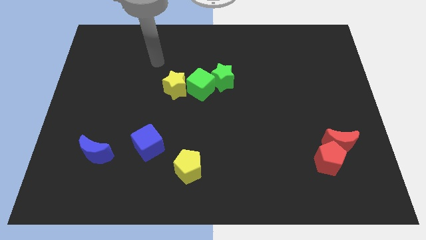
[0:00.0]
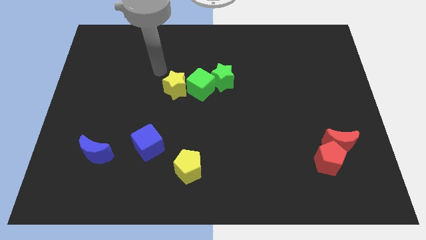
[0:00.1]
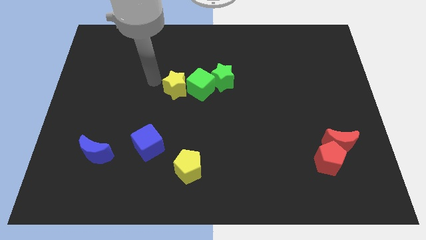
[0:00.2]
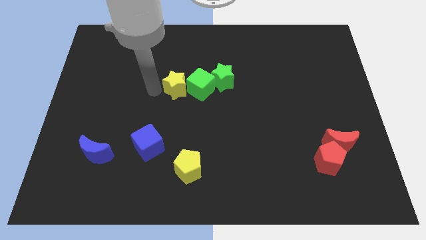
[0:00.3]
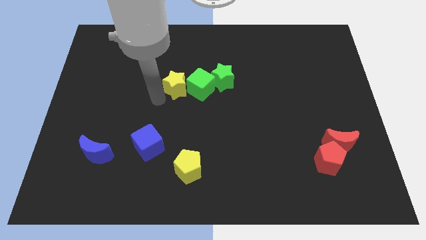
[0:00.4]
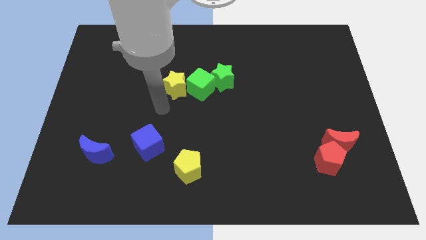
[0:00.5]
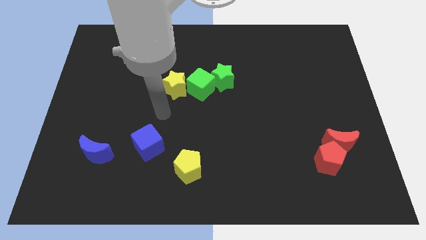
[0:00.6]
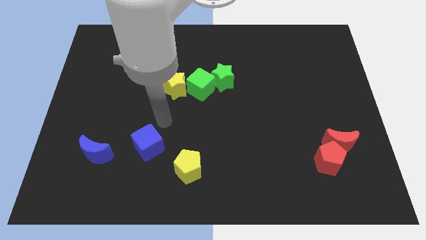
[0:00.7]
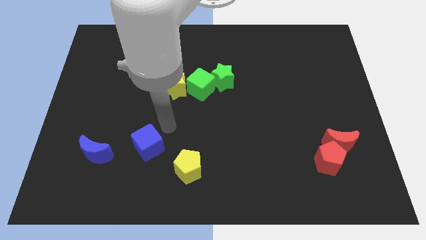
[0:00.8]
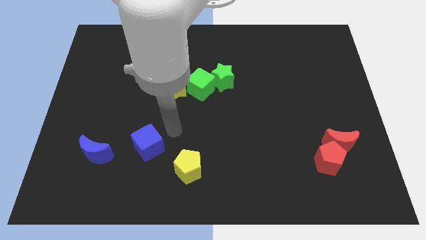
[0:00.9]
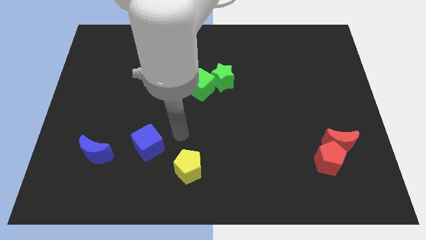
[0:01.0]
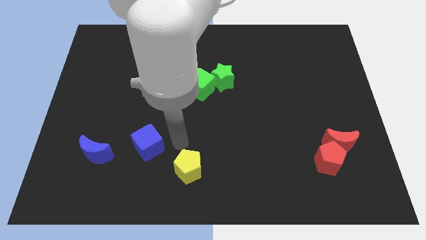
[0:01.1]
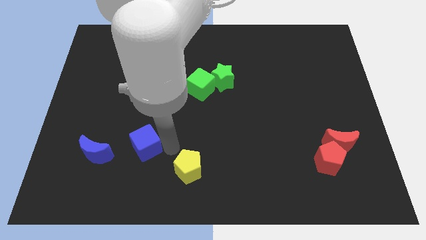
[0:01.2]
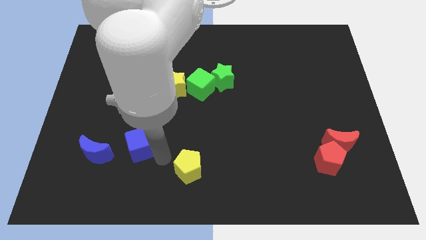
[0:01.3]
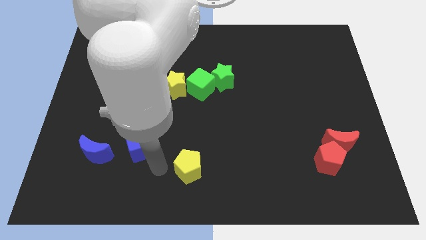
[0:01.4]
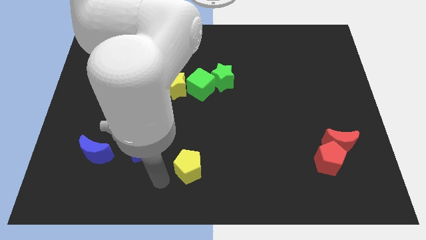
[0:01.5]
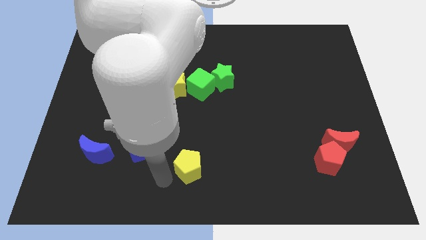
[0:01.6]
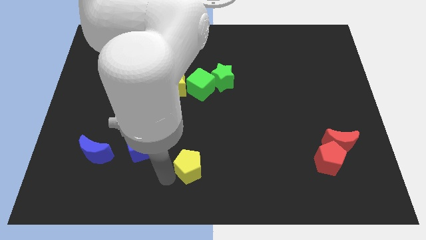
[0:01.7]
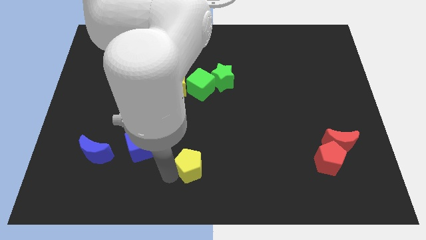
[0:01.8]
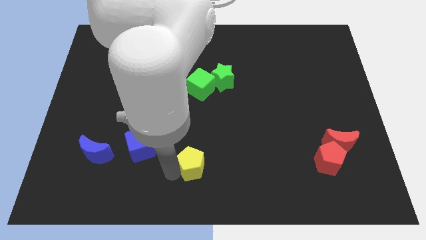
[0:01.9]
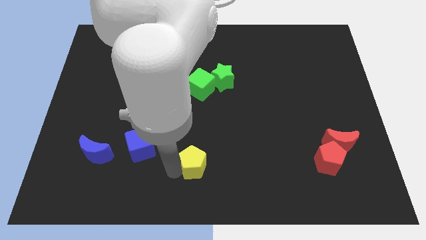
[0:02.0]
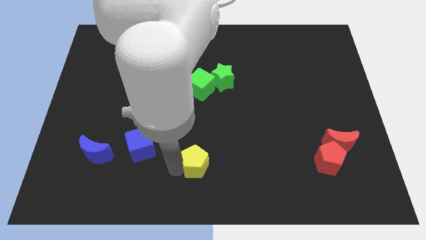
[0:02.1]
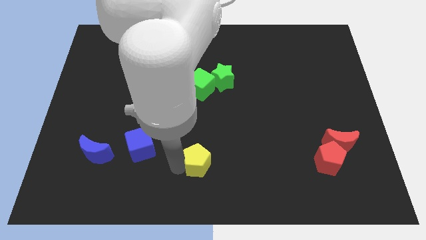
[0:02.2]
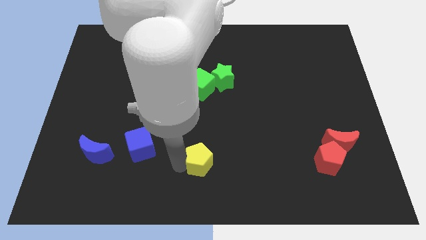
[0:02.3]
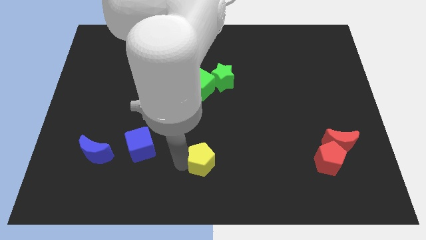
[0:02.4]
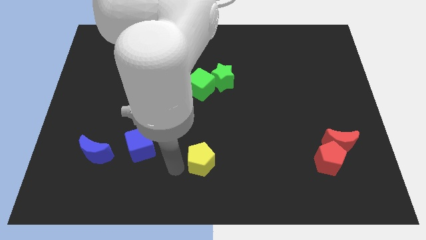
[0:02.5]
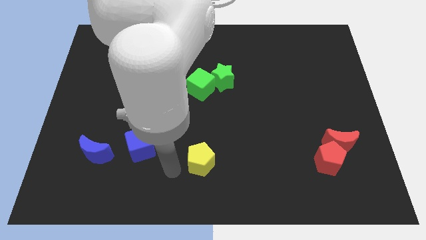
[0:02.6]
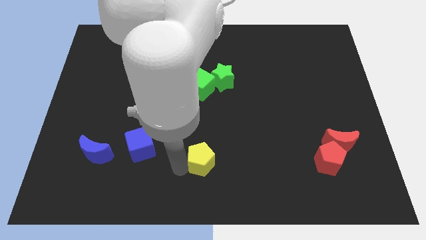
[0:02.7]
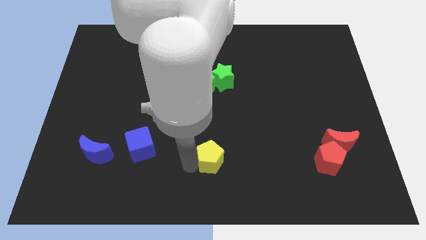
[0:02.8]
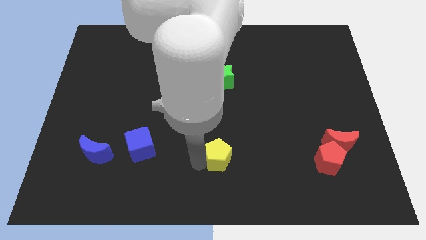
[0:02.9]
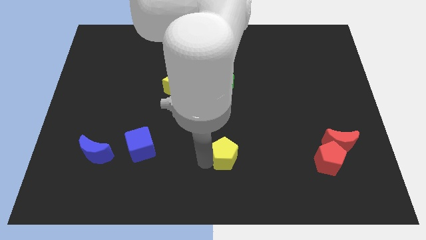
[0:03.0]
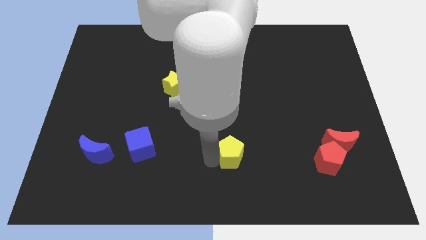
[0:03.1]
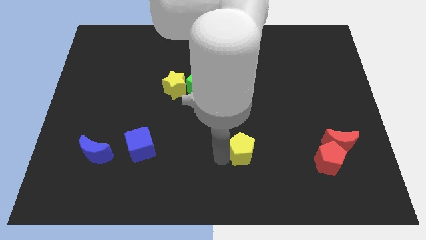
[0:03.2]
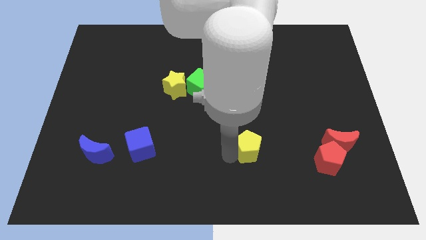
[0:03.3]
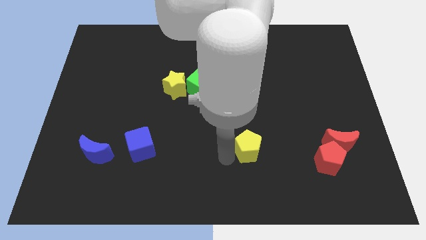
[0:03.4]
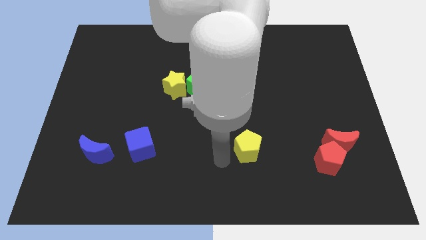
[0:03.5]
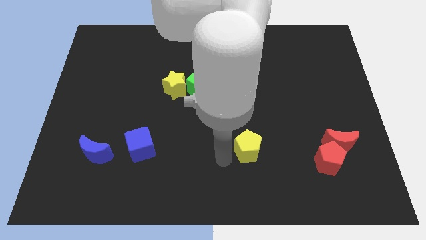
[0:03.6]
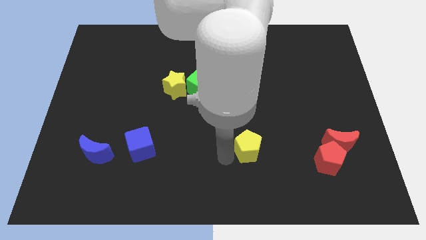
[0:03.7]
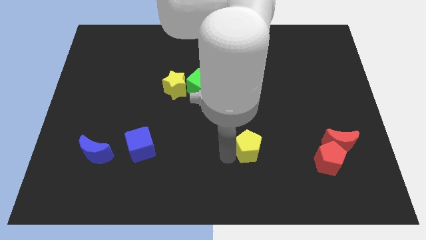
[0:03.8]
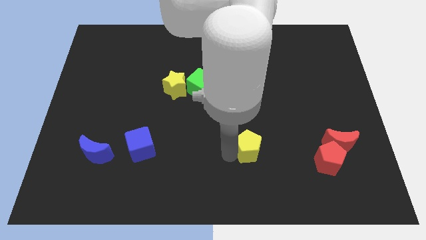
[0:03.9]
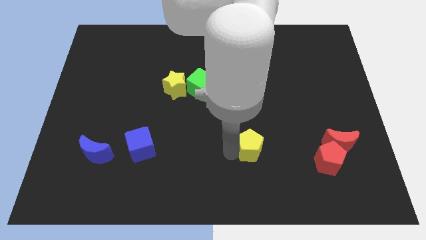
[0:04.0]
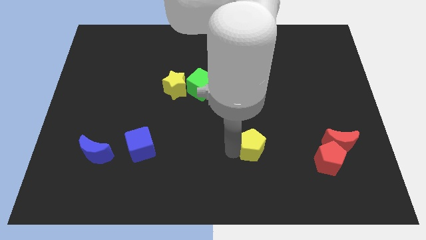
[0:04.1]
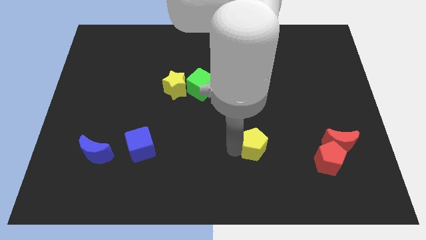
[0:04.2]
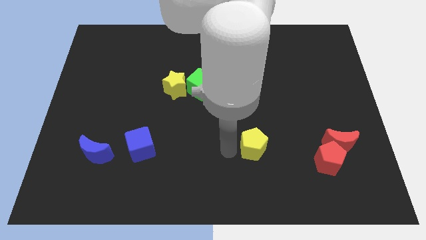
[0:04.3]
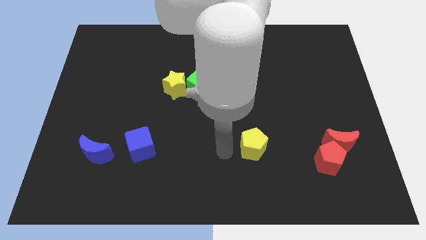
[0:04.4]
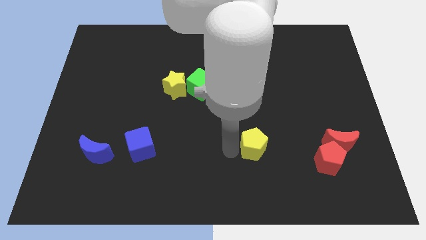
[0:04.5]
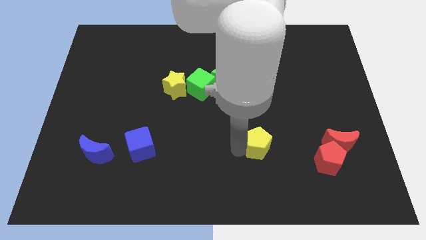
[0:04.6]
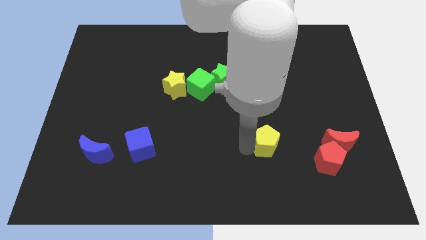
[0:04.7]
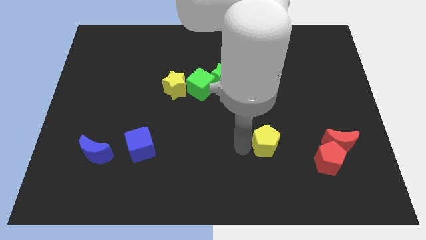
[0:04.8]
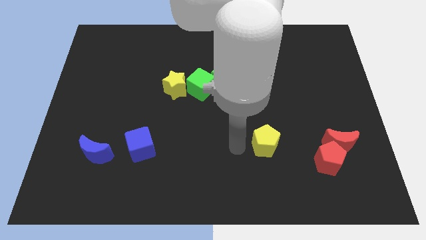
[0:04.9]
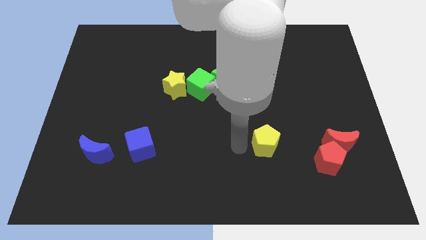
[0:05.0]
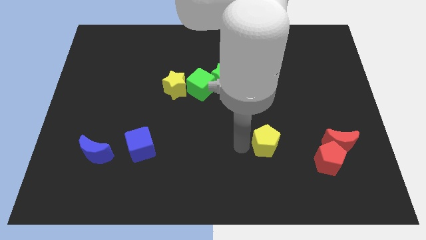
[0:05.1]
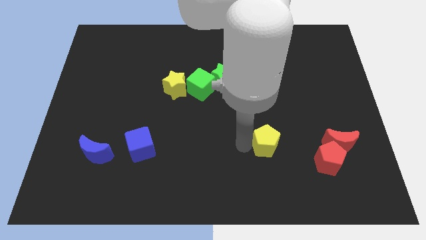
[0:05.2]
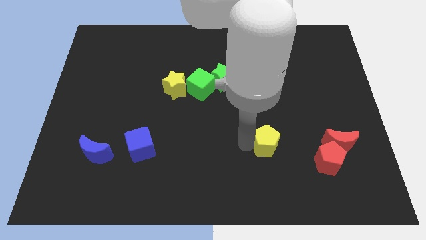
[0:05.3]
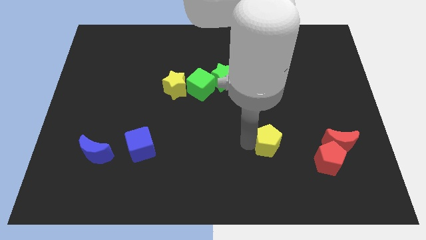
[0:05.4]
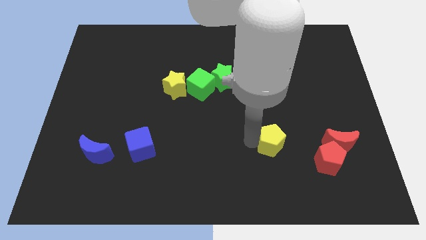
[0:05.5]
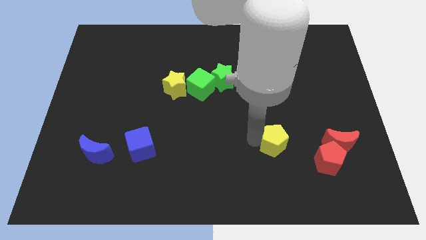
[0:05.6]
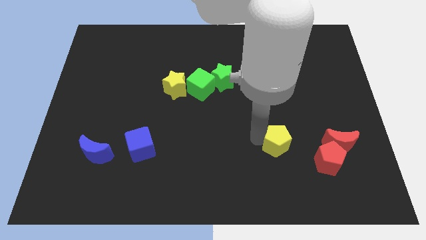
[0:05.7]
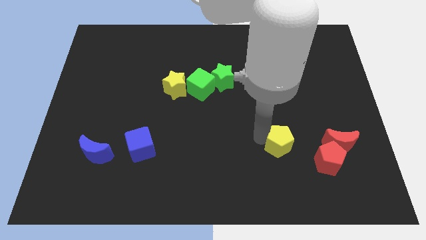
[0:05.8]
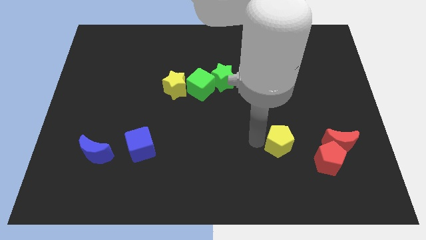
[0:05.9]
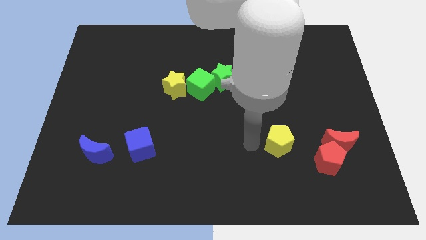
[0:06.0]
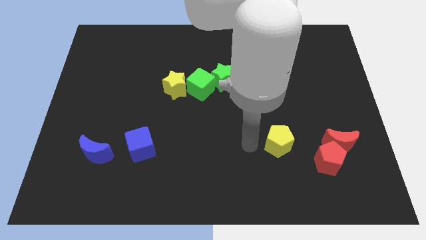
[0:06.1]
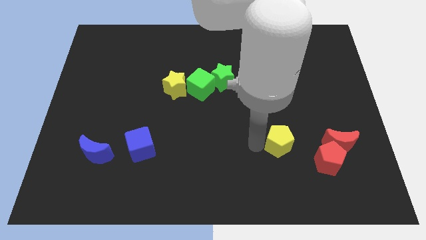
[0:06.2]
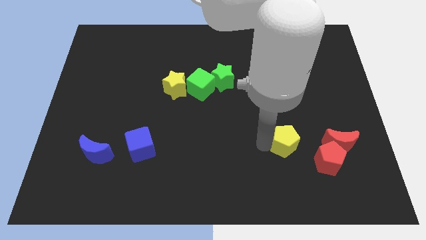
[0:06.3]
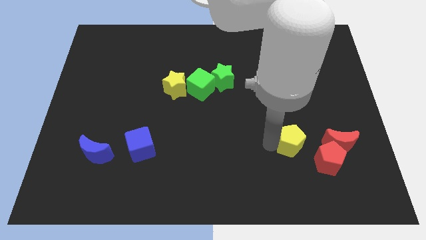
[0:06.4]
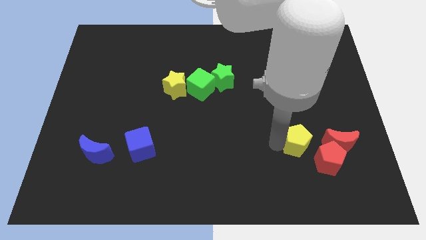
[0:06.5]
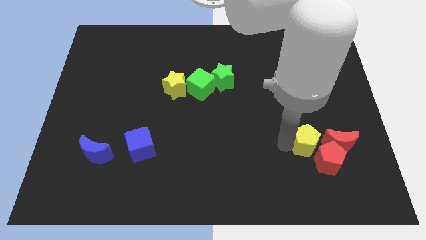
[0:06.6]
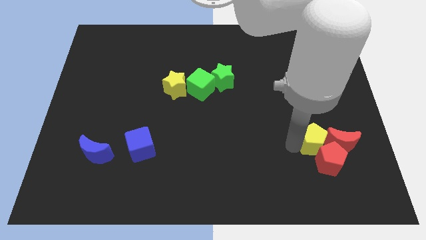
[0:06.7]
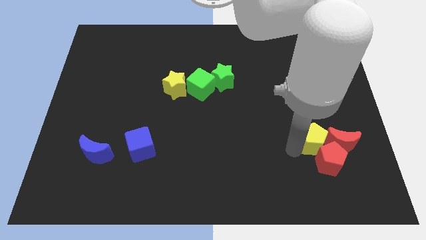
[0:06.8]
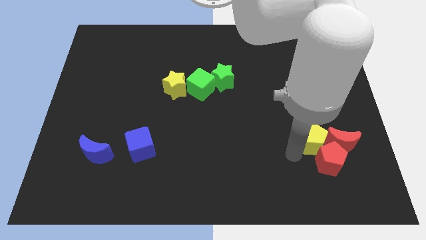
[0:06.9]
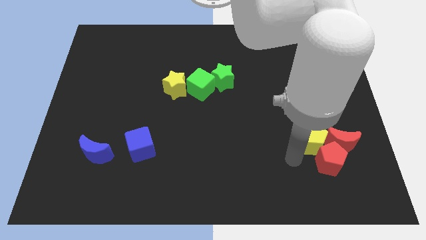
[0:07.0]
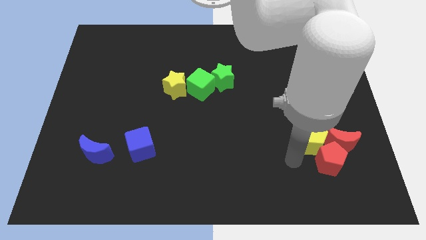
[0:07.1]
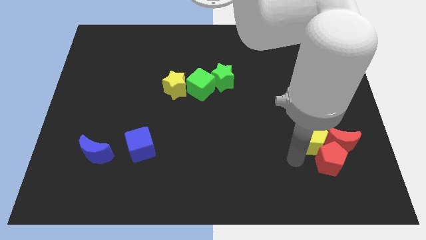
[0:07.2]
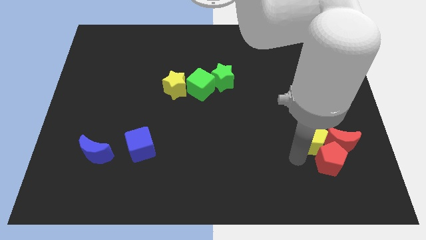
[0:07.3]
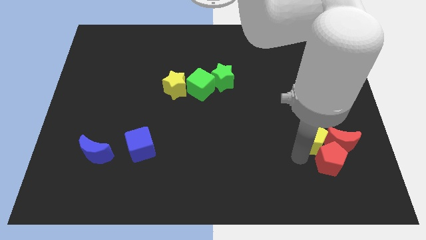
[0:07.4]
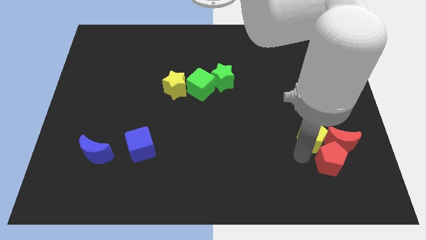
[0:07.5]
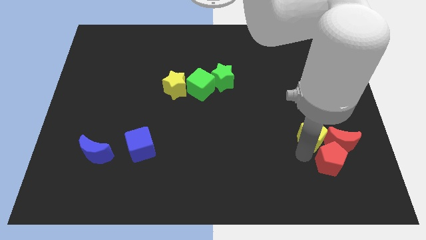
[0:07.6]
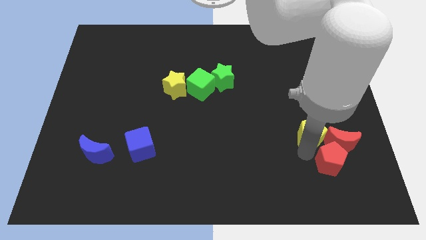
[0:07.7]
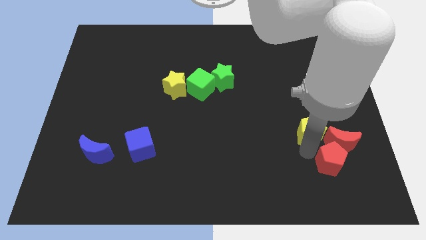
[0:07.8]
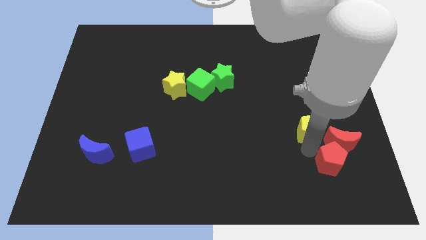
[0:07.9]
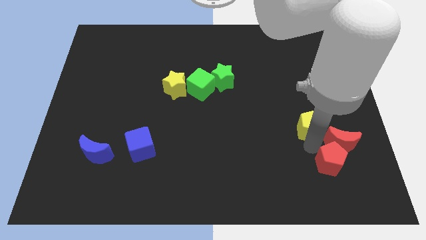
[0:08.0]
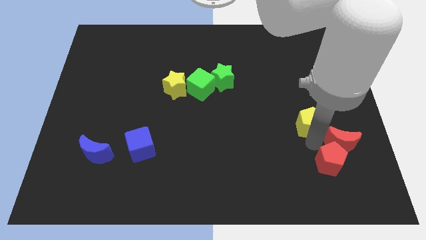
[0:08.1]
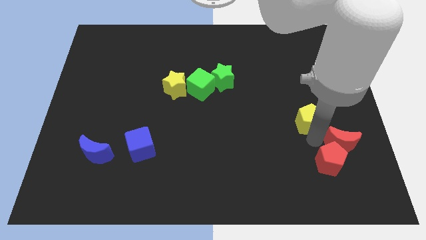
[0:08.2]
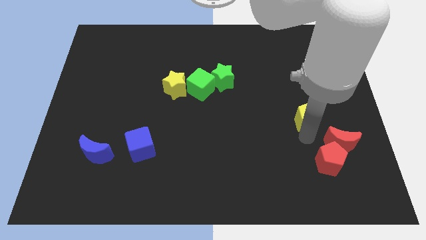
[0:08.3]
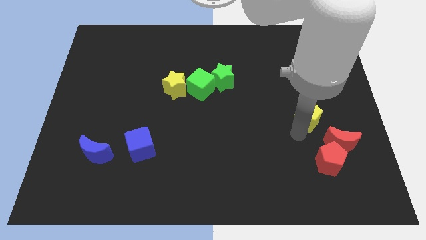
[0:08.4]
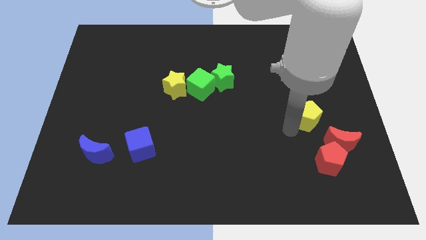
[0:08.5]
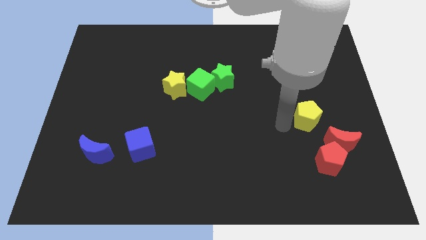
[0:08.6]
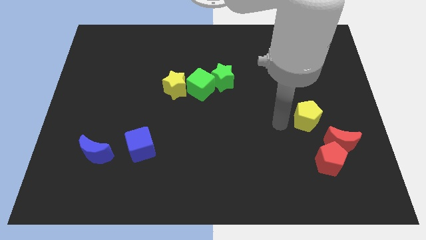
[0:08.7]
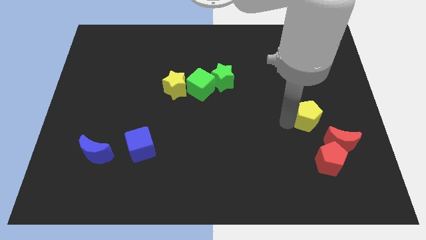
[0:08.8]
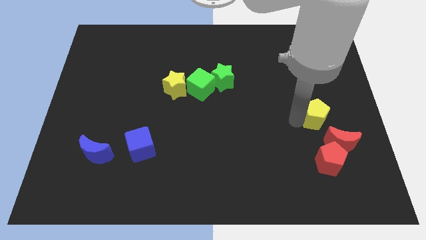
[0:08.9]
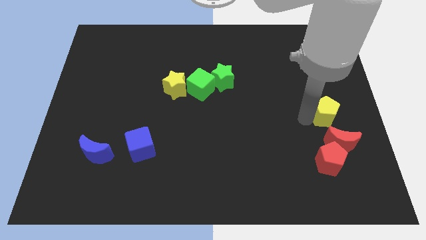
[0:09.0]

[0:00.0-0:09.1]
slide the yellow pentagon to the right side of the board
